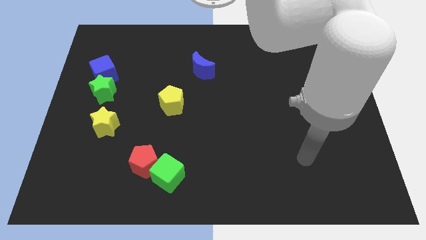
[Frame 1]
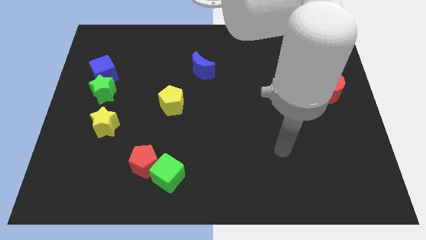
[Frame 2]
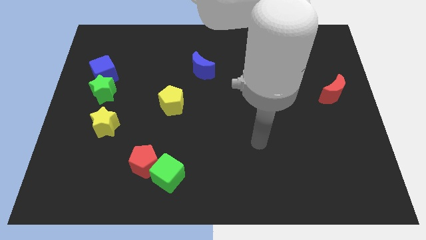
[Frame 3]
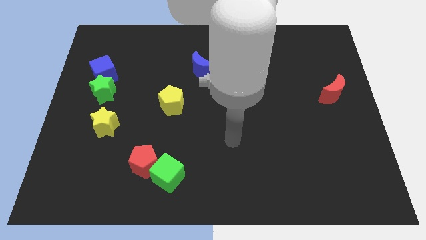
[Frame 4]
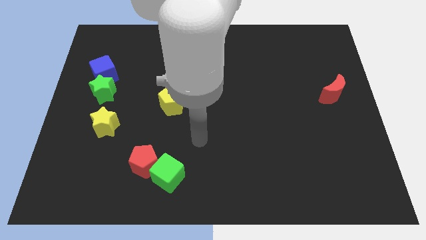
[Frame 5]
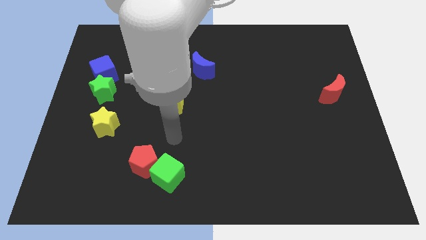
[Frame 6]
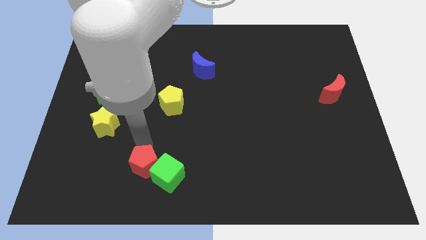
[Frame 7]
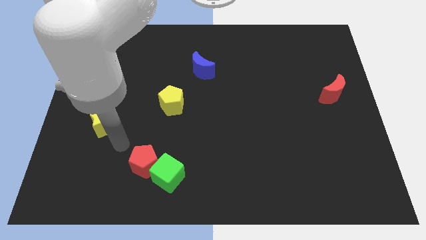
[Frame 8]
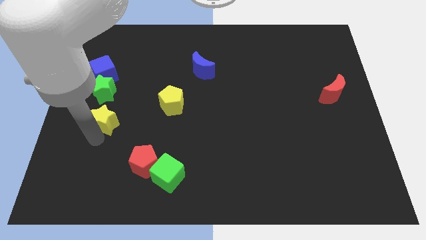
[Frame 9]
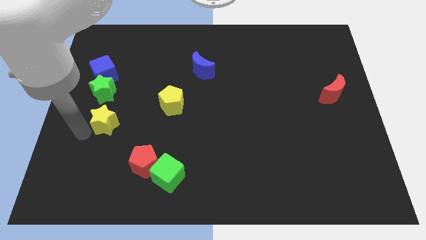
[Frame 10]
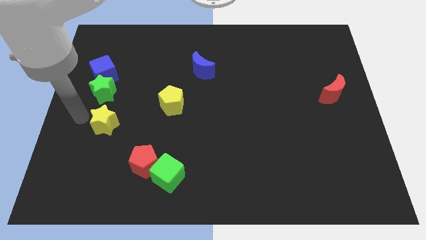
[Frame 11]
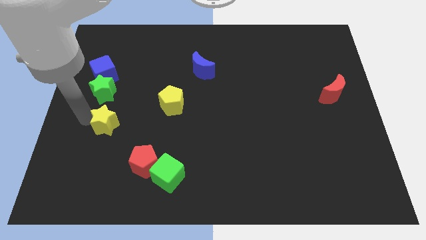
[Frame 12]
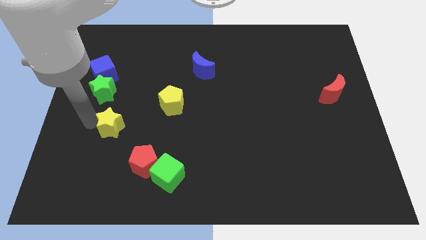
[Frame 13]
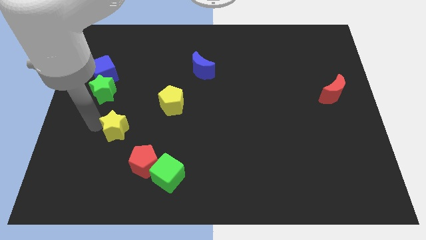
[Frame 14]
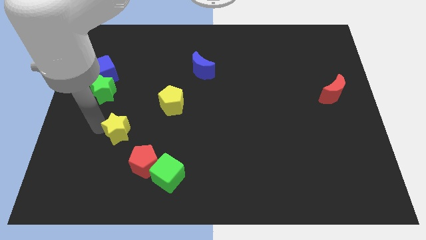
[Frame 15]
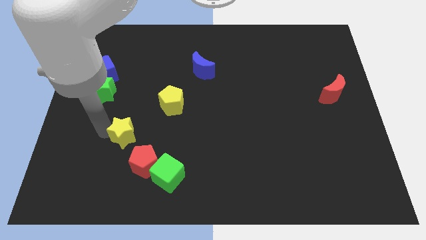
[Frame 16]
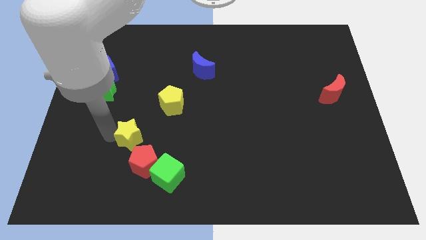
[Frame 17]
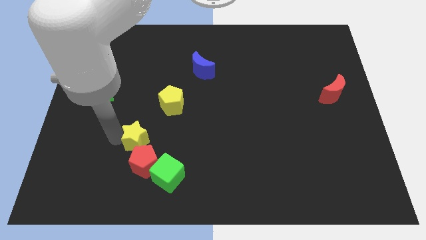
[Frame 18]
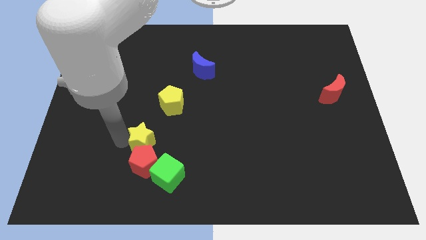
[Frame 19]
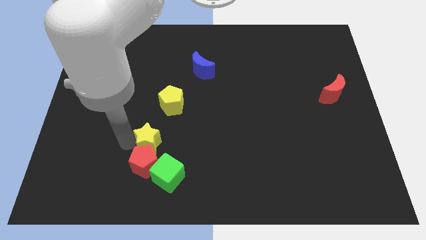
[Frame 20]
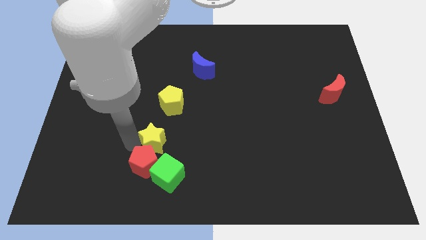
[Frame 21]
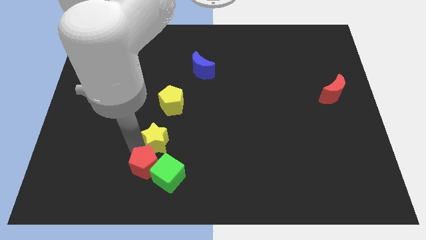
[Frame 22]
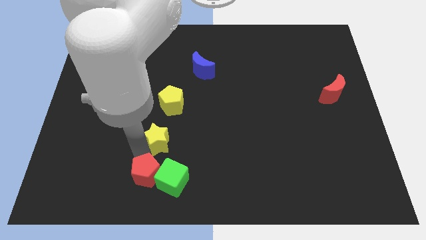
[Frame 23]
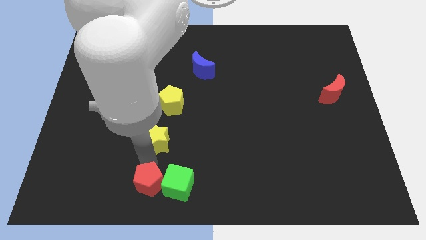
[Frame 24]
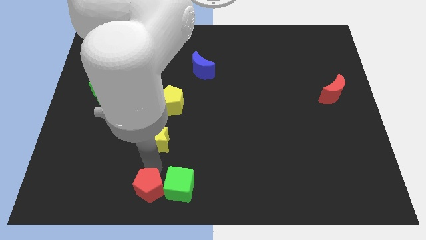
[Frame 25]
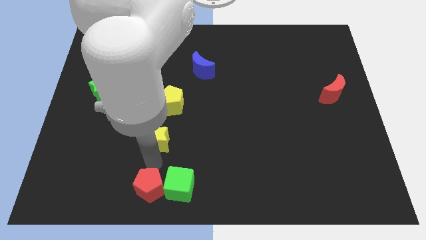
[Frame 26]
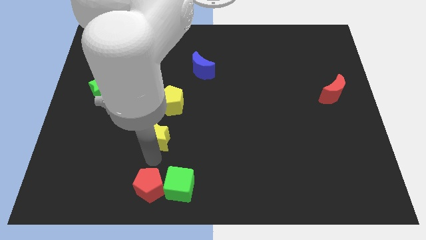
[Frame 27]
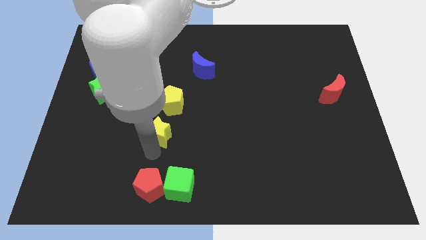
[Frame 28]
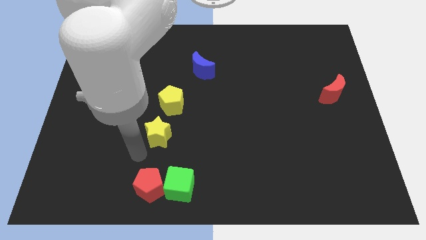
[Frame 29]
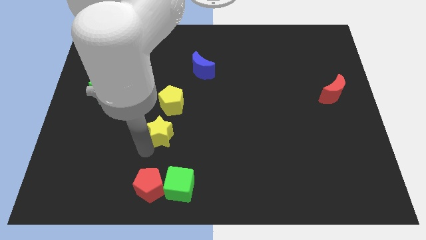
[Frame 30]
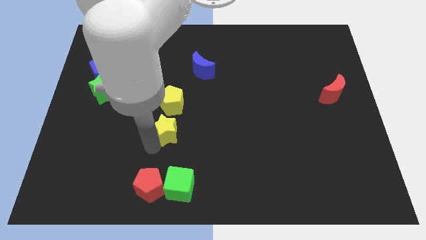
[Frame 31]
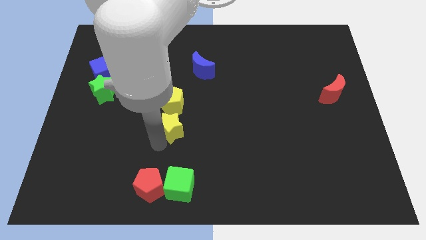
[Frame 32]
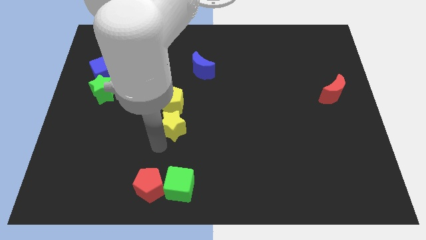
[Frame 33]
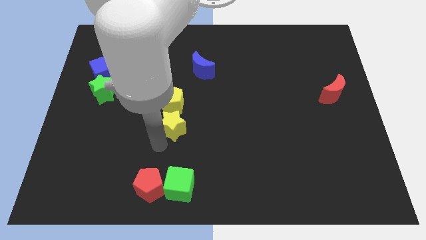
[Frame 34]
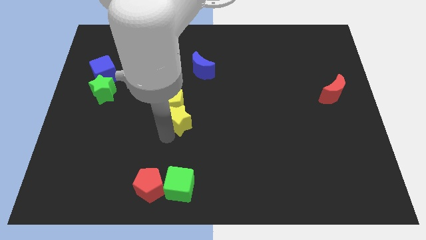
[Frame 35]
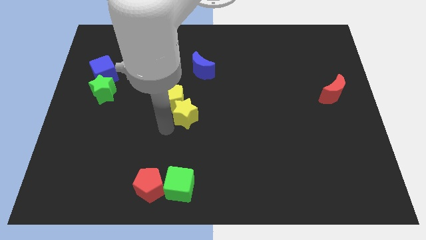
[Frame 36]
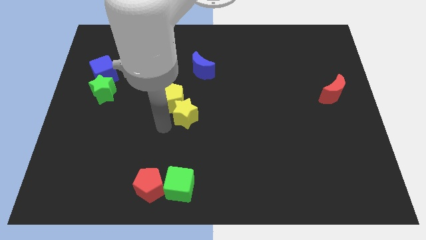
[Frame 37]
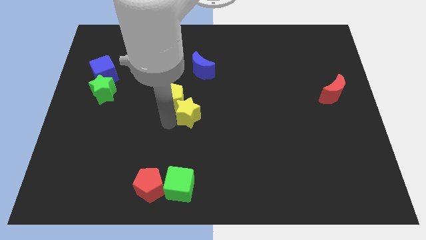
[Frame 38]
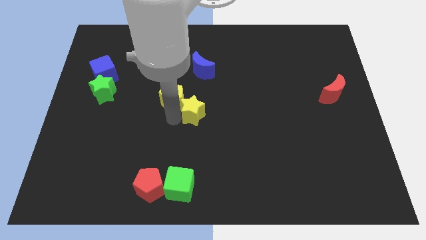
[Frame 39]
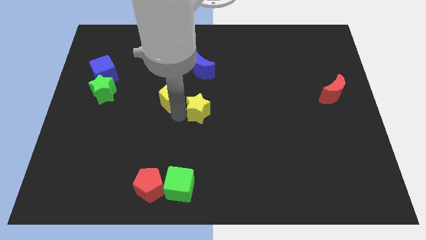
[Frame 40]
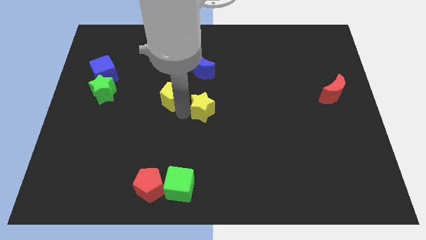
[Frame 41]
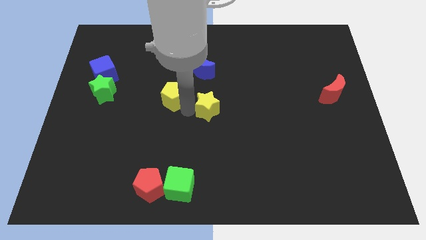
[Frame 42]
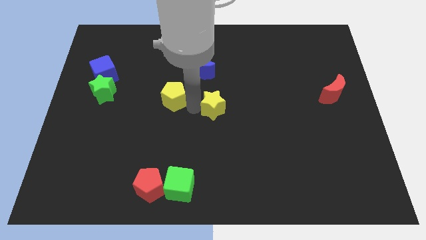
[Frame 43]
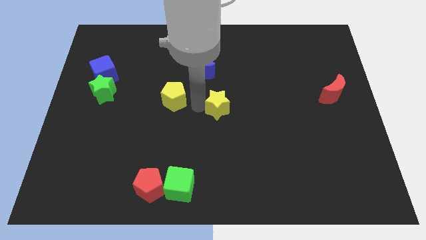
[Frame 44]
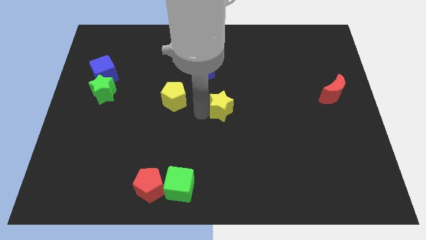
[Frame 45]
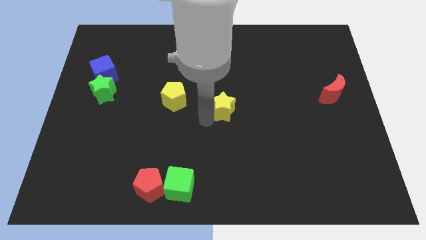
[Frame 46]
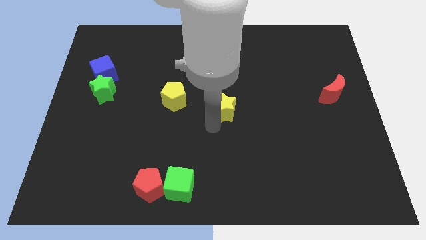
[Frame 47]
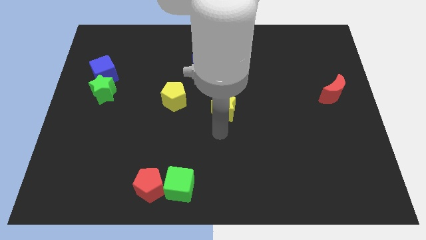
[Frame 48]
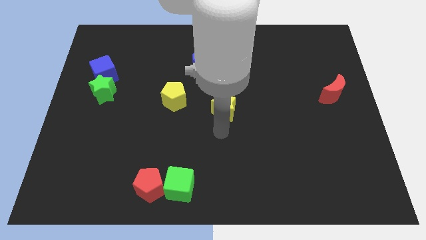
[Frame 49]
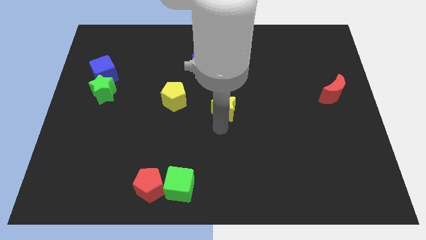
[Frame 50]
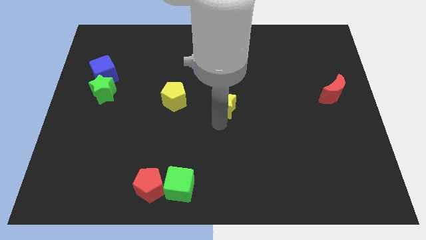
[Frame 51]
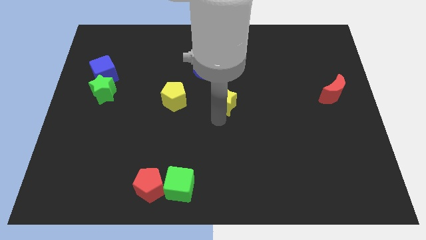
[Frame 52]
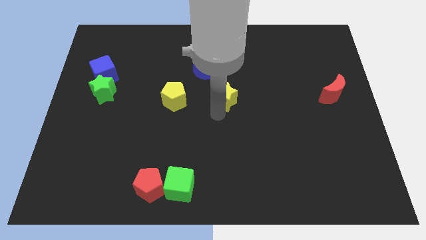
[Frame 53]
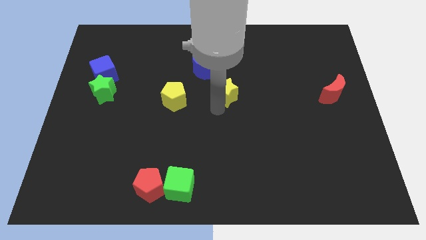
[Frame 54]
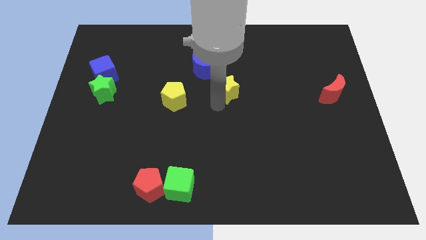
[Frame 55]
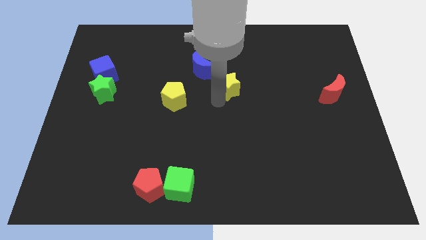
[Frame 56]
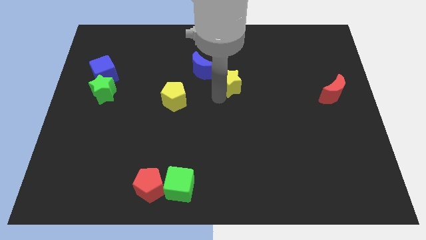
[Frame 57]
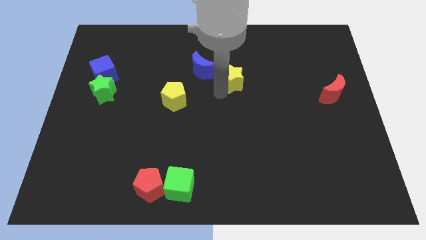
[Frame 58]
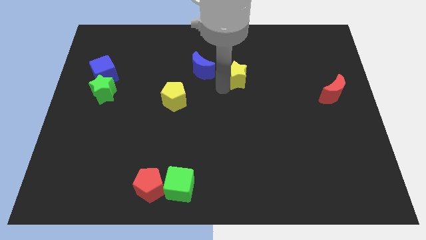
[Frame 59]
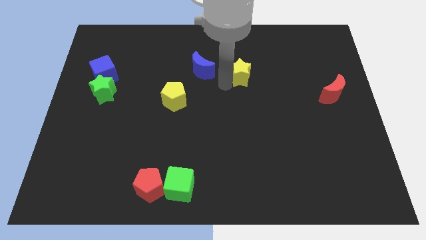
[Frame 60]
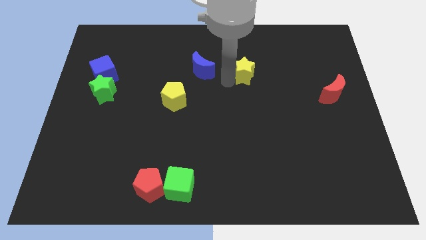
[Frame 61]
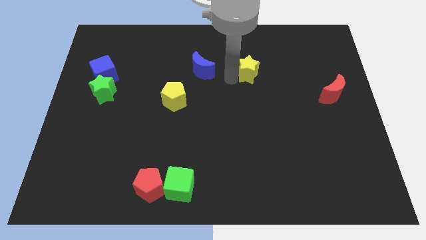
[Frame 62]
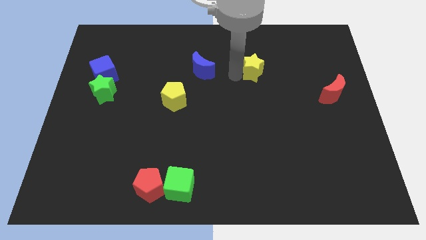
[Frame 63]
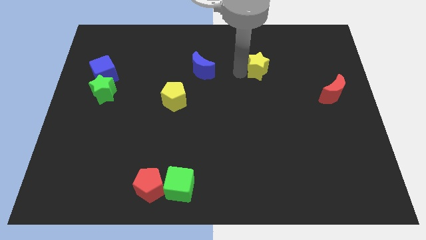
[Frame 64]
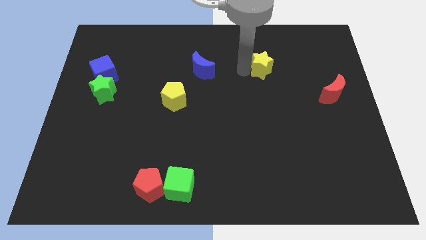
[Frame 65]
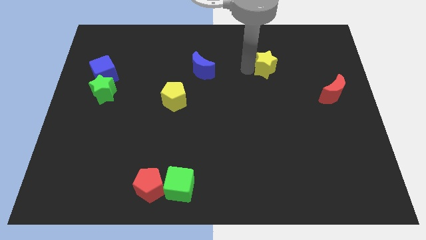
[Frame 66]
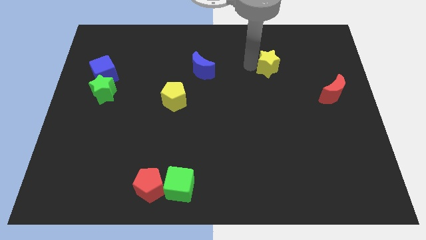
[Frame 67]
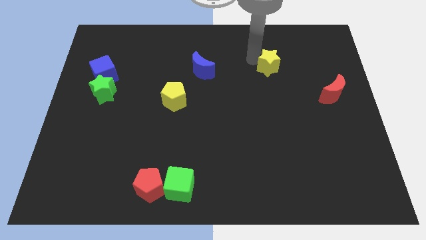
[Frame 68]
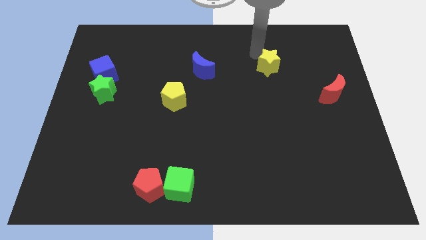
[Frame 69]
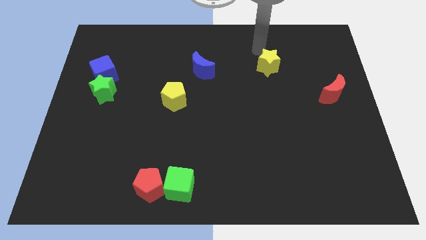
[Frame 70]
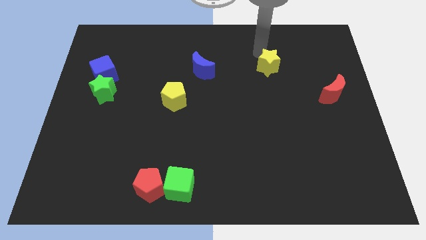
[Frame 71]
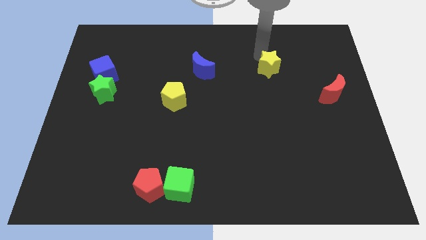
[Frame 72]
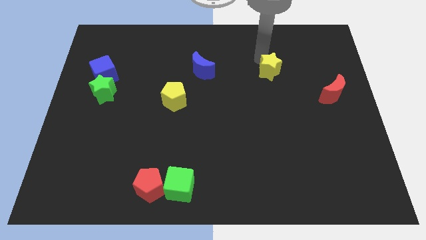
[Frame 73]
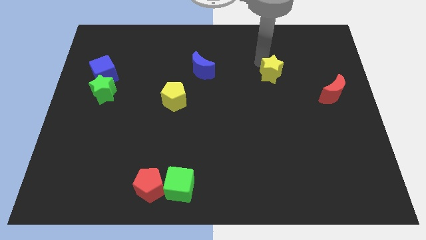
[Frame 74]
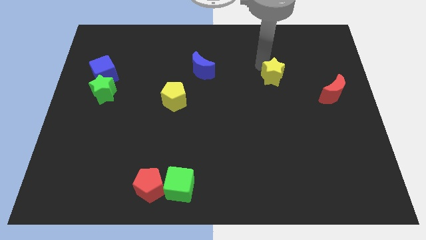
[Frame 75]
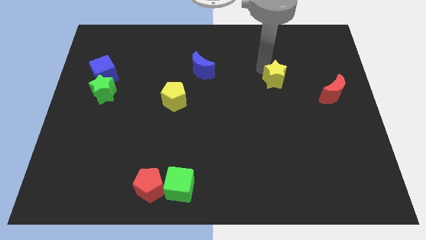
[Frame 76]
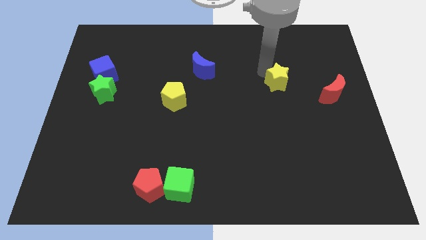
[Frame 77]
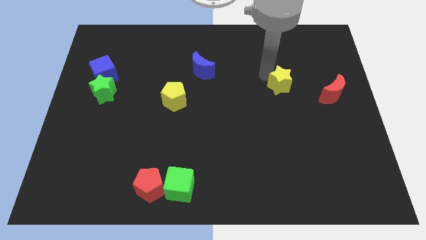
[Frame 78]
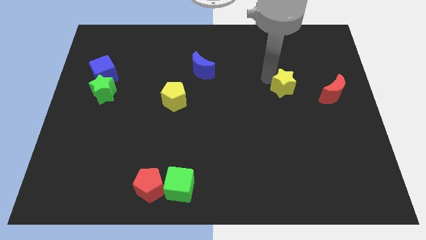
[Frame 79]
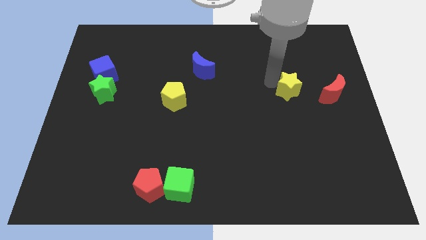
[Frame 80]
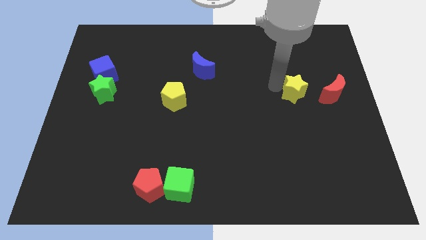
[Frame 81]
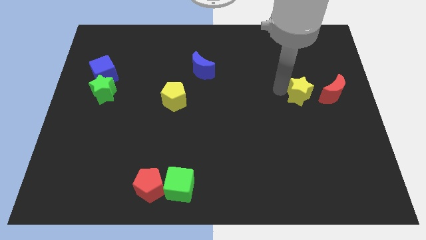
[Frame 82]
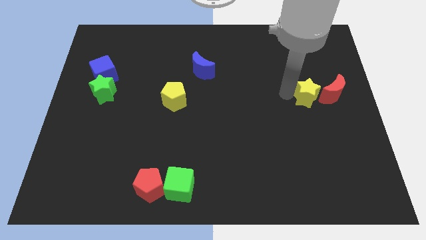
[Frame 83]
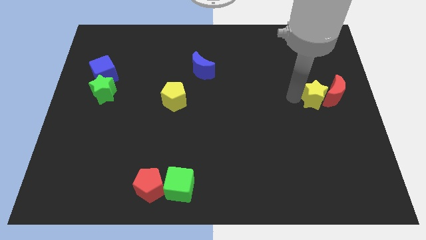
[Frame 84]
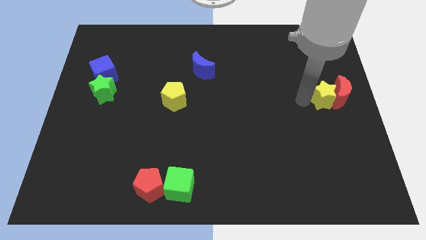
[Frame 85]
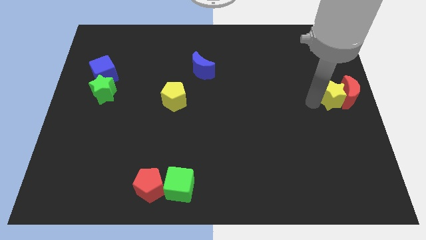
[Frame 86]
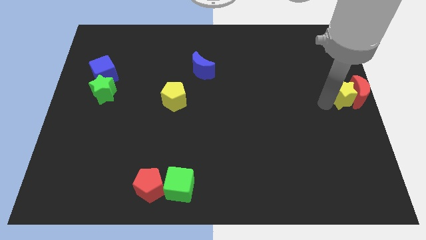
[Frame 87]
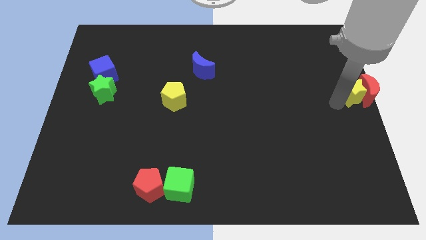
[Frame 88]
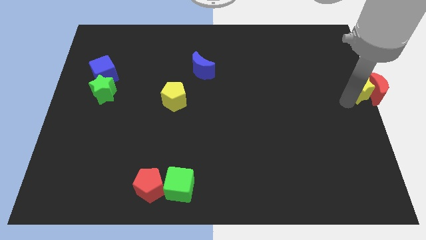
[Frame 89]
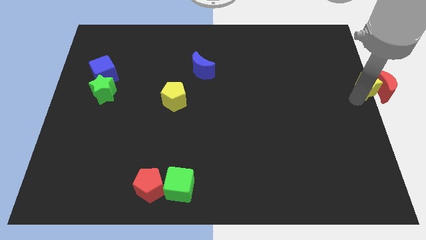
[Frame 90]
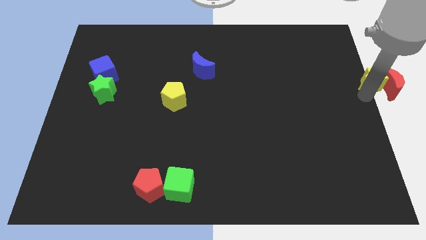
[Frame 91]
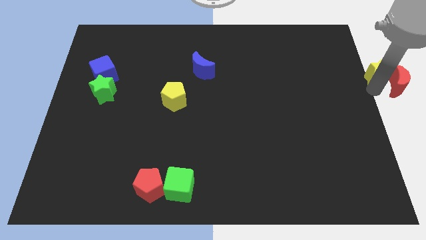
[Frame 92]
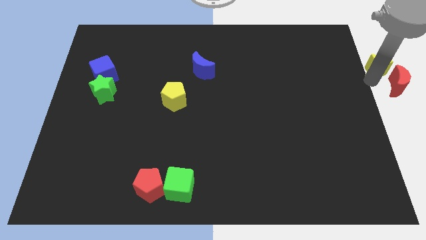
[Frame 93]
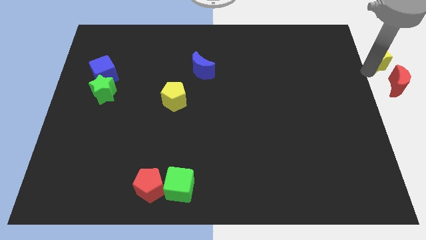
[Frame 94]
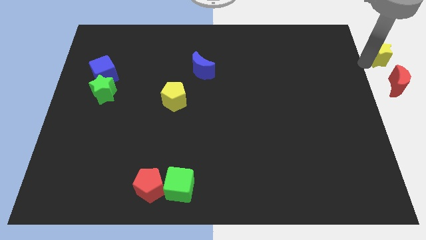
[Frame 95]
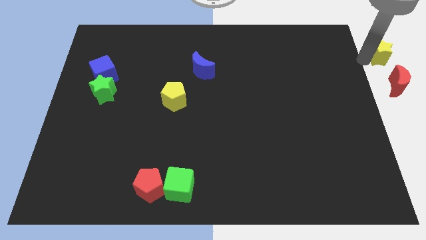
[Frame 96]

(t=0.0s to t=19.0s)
put the yellow star to the top right corner
